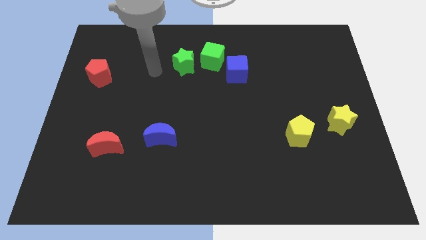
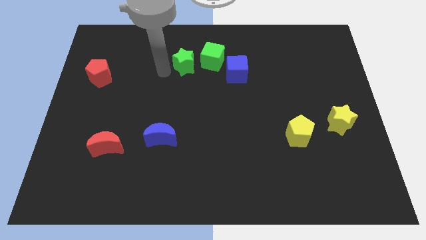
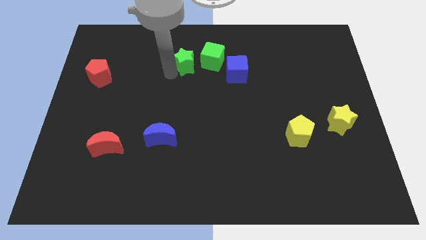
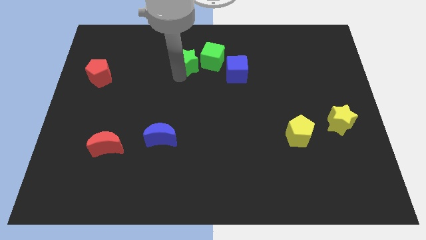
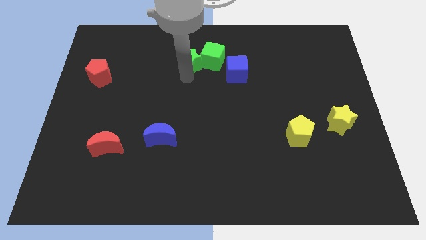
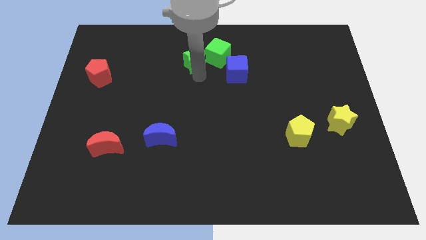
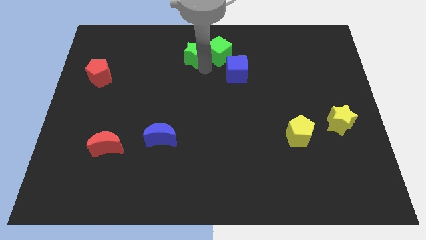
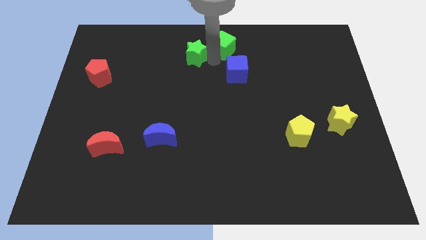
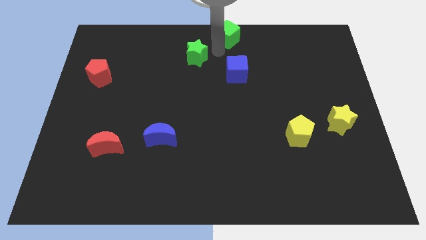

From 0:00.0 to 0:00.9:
move the green star away from the green cube

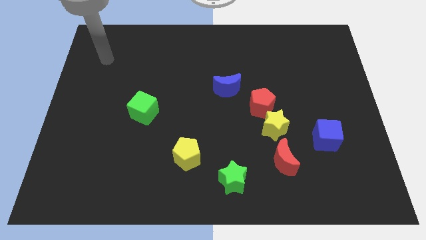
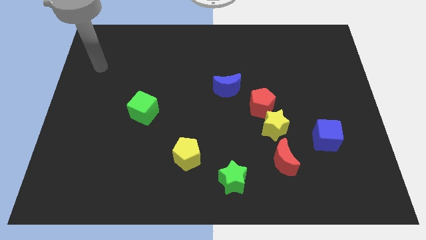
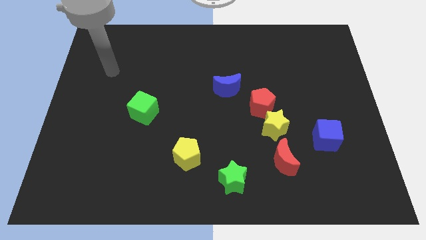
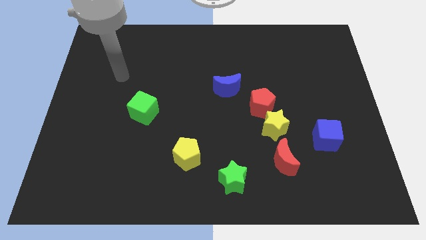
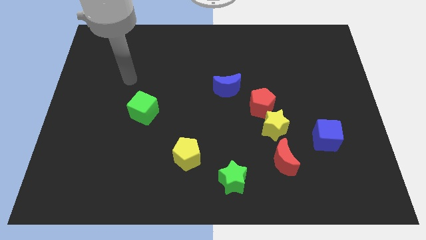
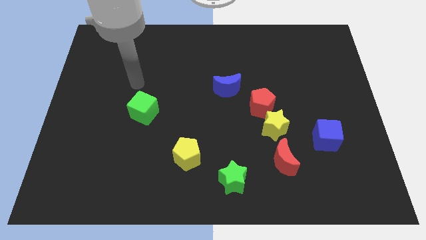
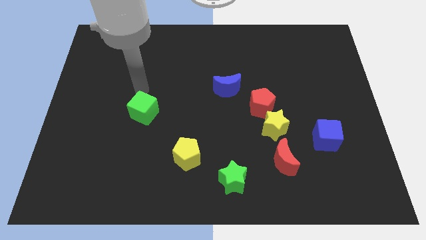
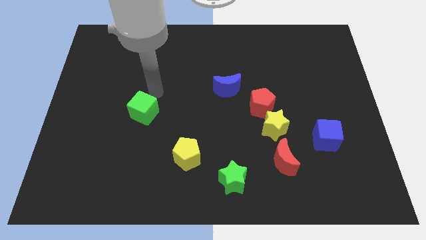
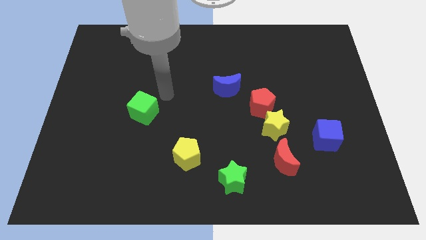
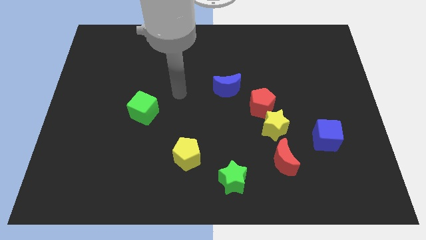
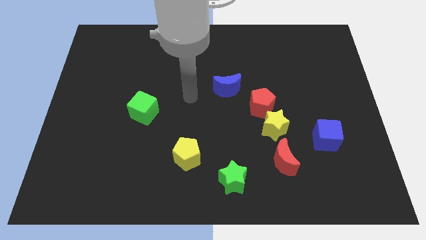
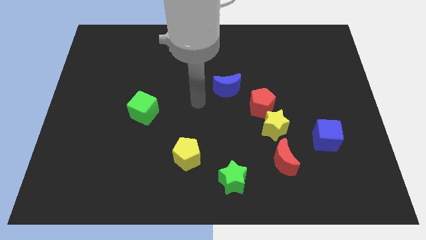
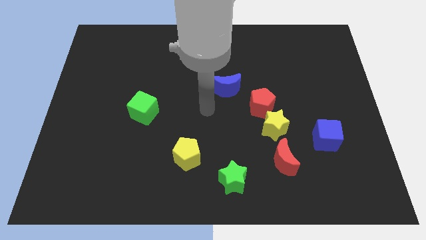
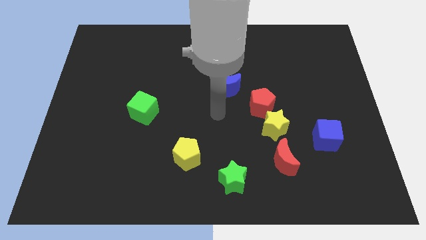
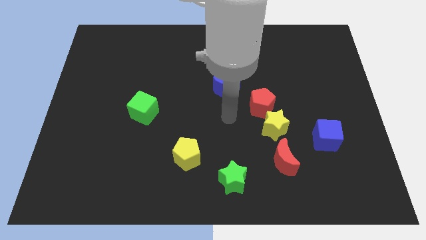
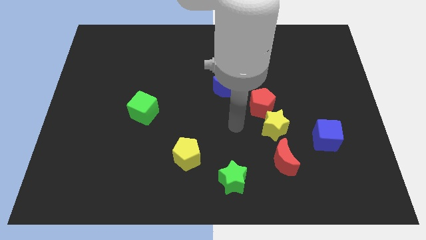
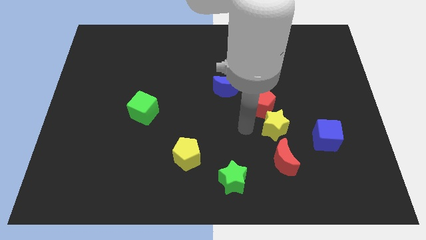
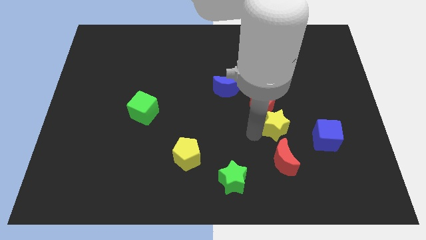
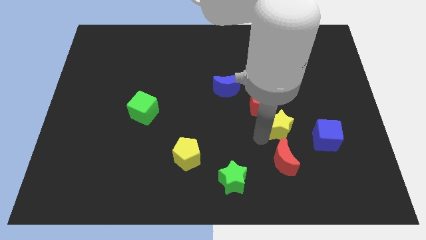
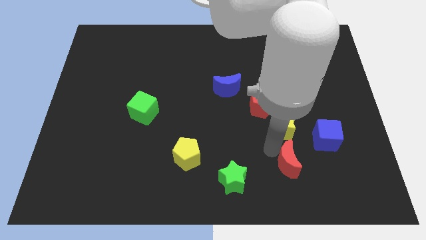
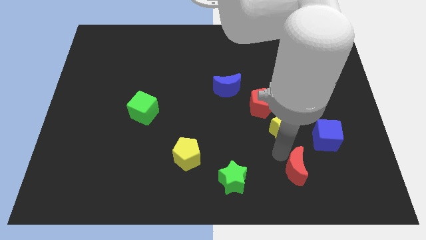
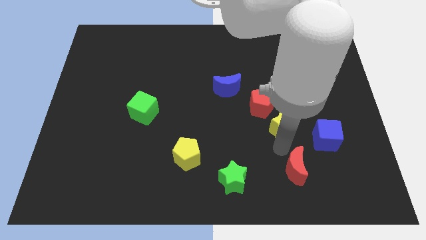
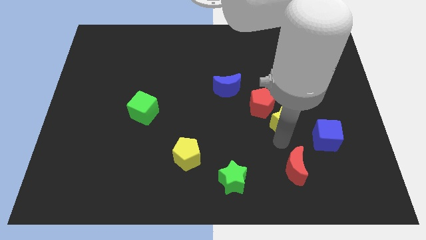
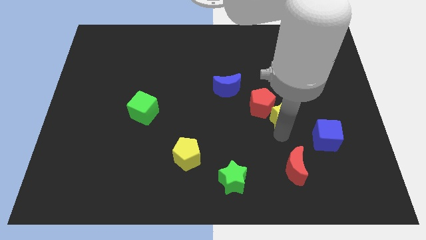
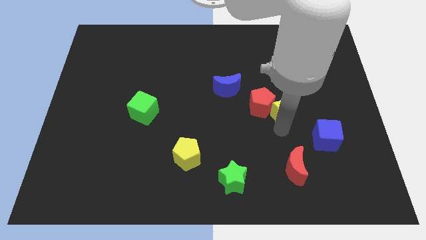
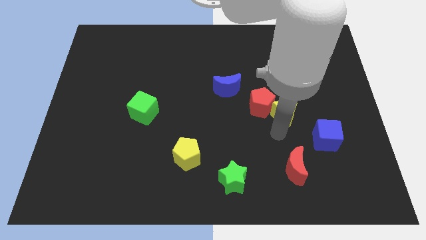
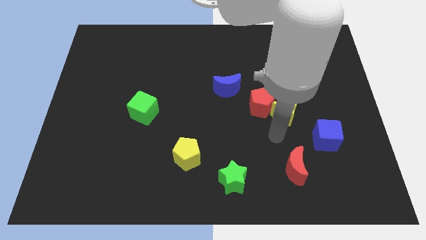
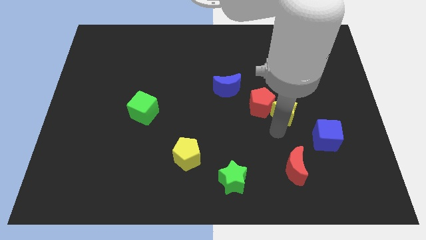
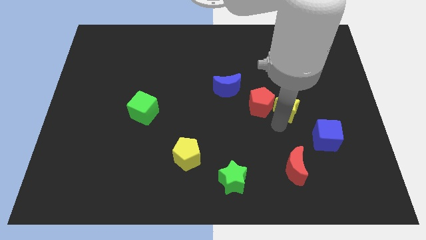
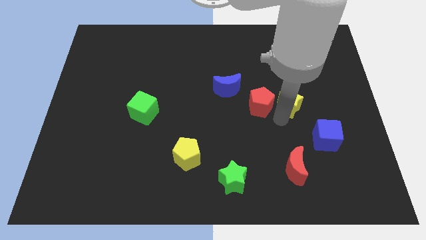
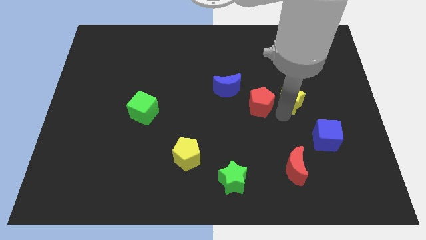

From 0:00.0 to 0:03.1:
pull the yellow star apart from the red pentagon and red moon

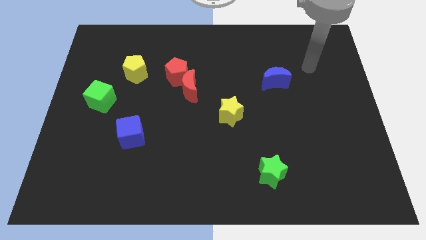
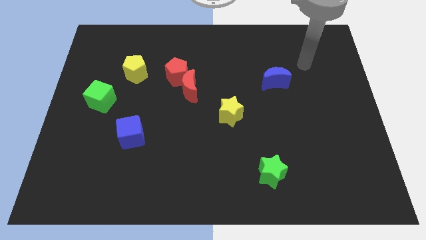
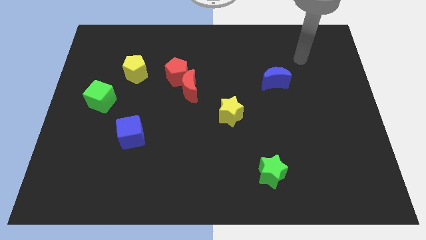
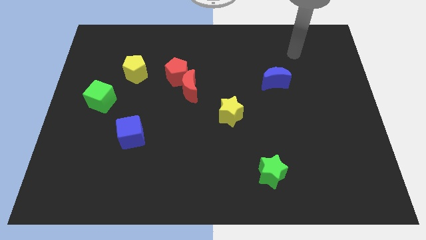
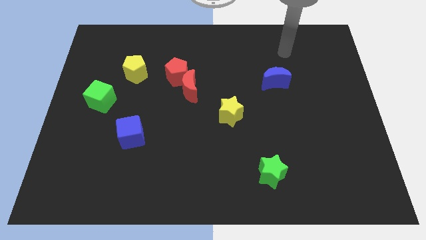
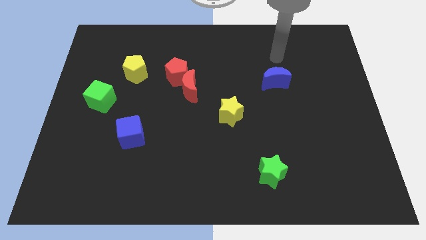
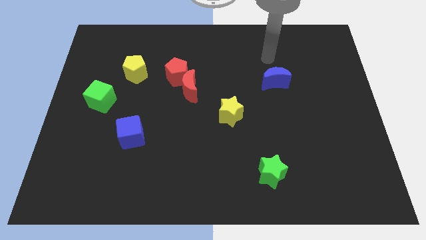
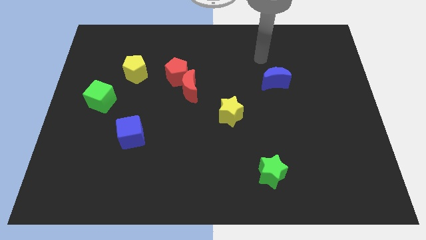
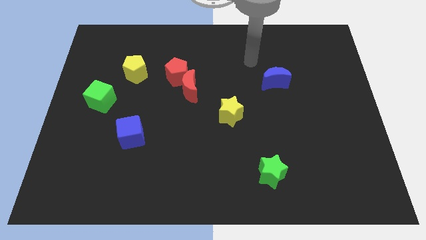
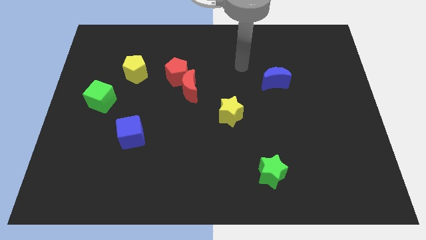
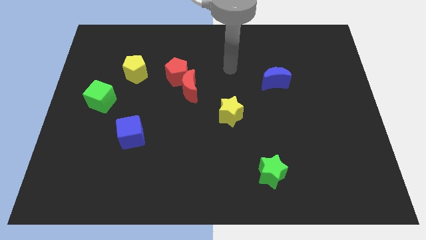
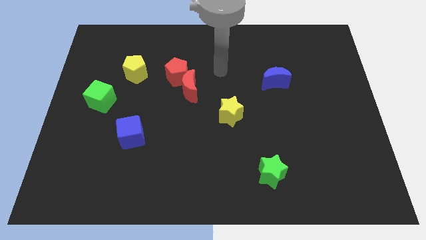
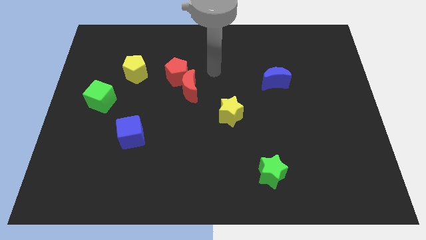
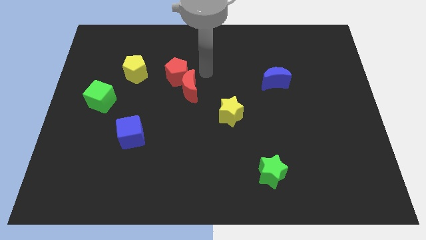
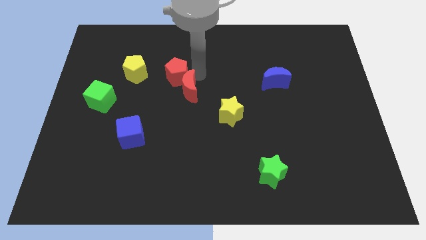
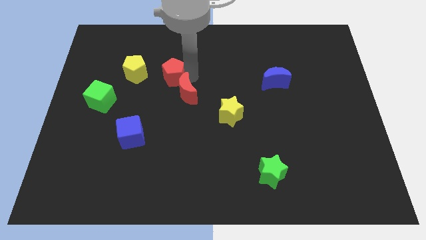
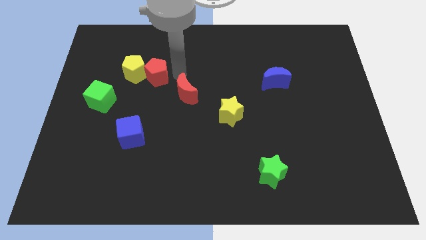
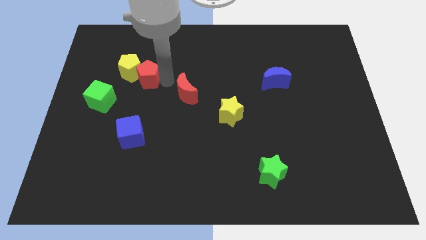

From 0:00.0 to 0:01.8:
separate the red moon from the red pentagon

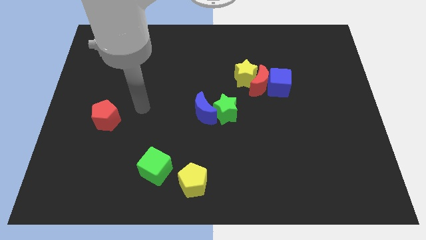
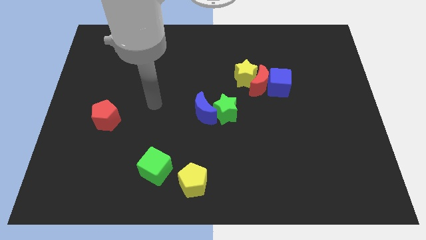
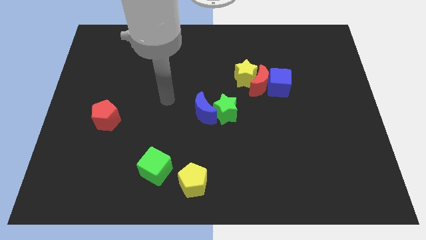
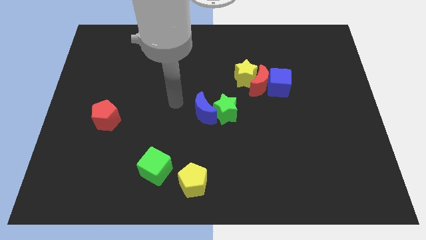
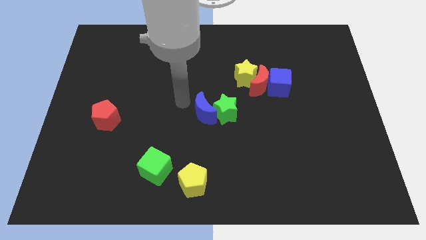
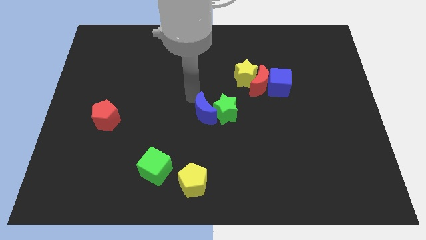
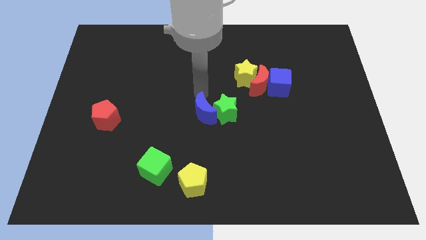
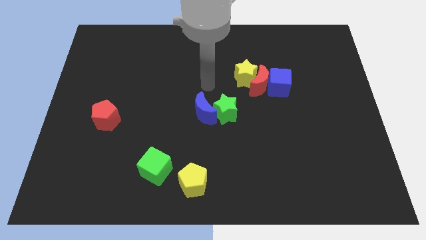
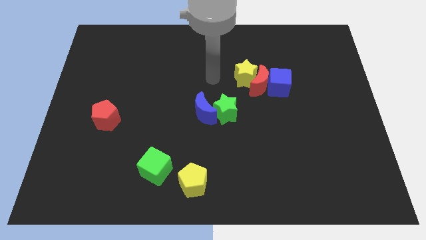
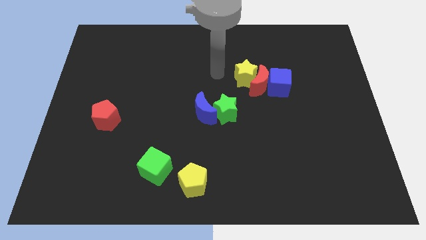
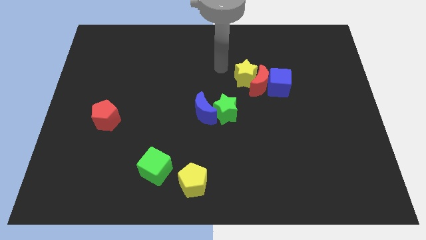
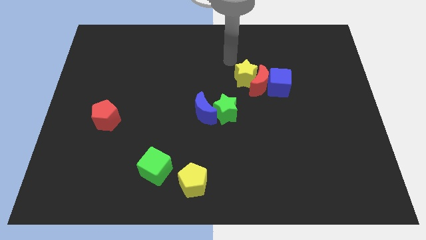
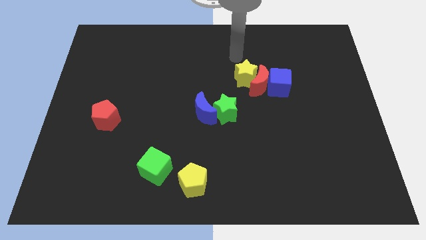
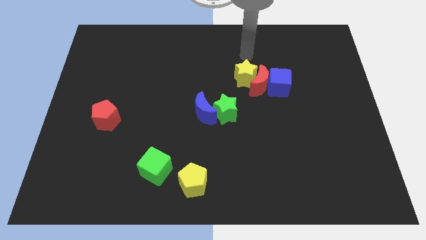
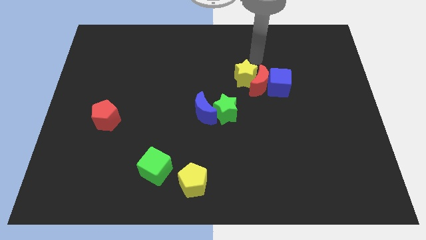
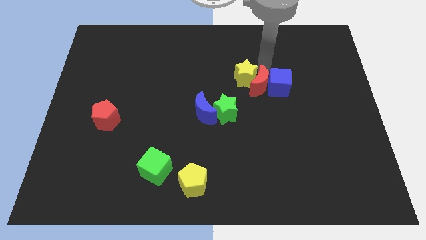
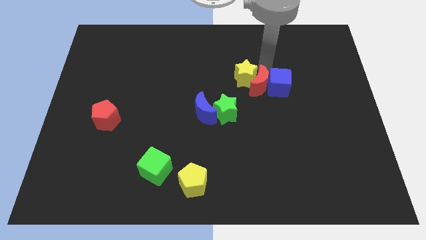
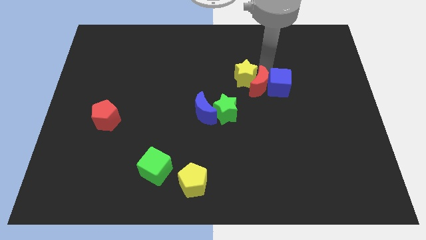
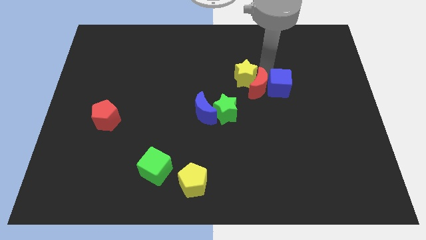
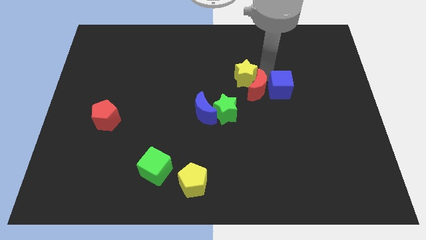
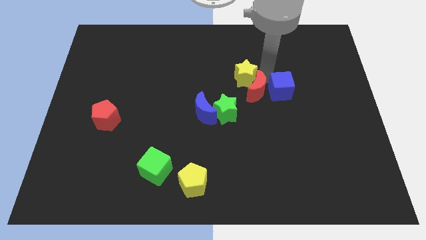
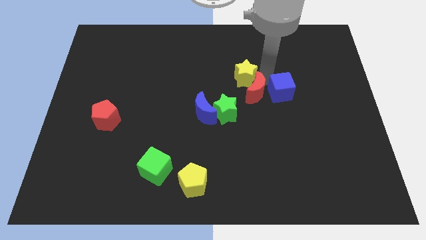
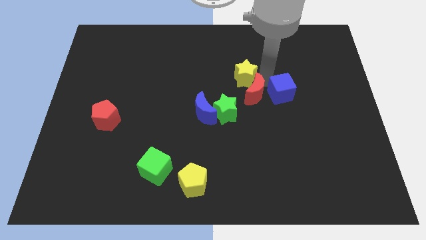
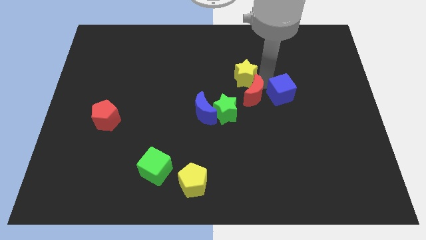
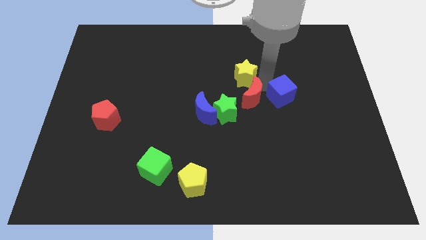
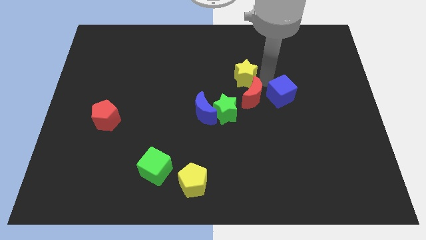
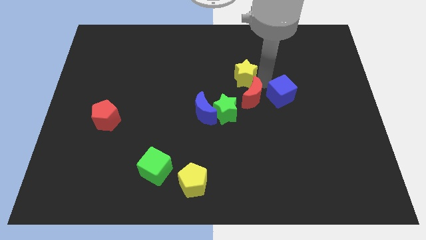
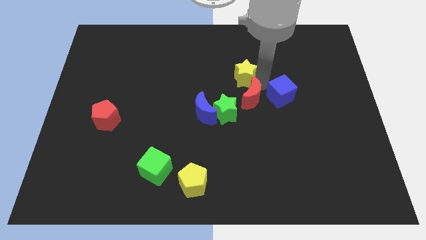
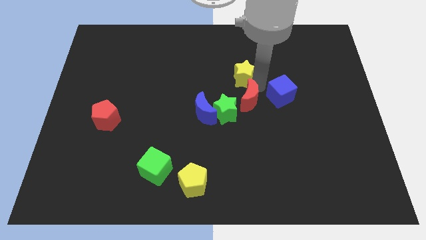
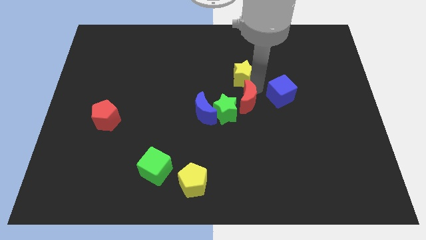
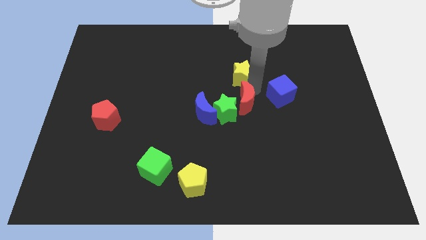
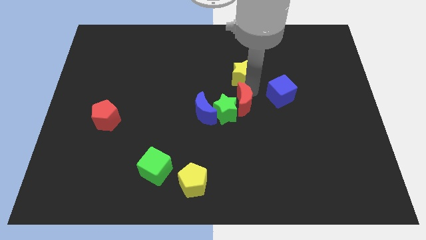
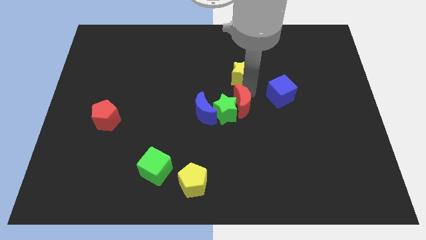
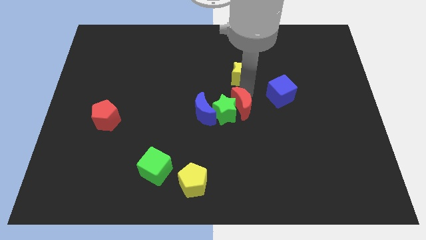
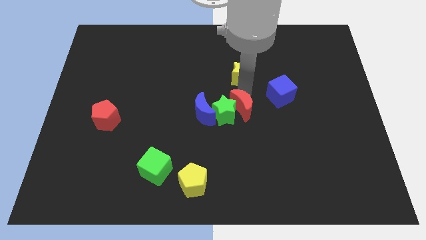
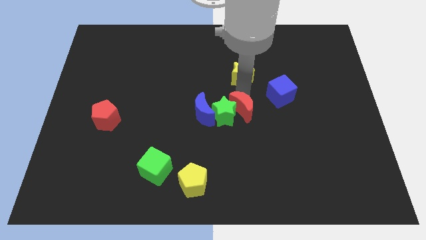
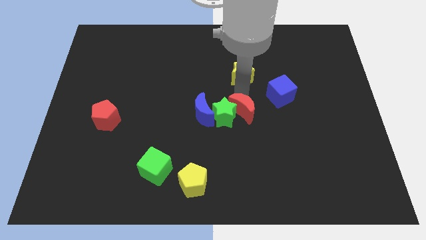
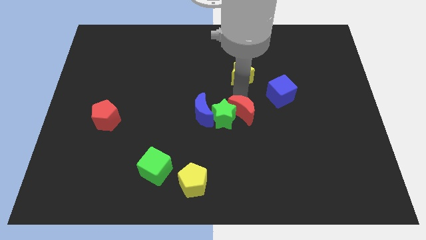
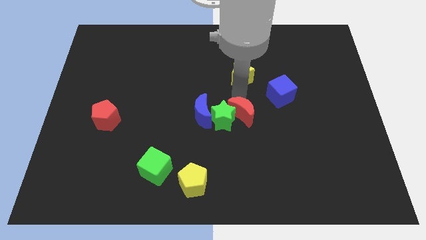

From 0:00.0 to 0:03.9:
pull the red moon apart from the blue cube and yellow star
